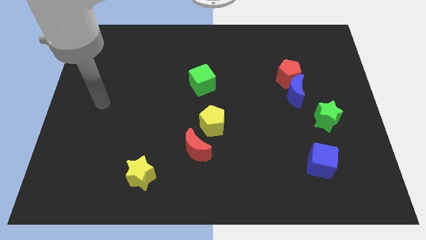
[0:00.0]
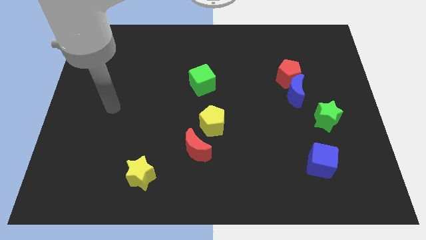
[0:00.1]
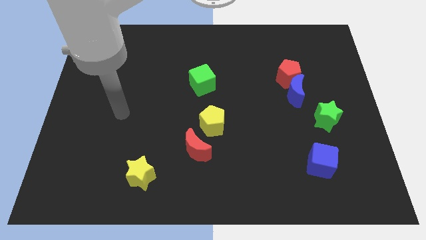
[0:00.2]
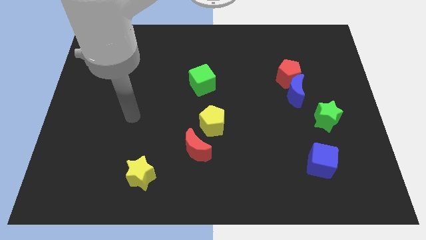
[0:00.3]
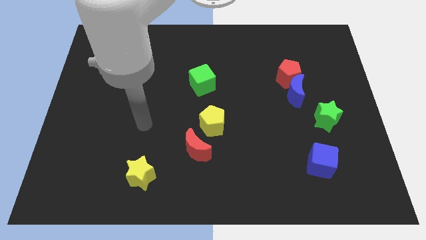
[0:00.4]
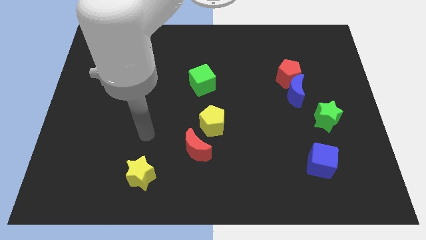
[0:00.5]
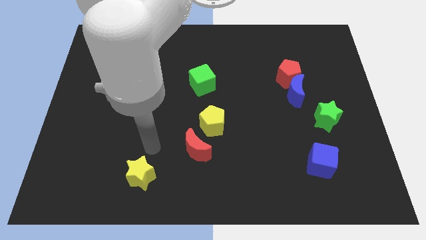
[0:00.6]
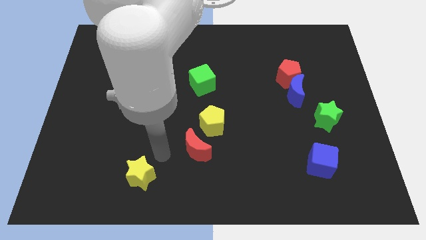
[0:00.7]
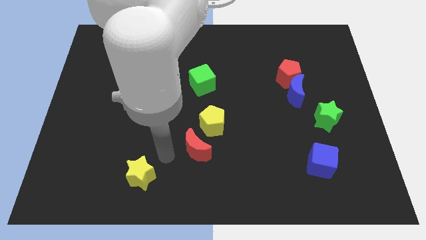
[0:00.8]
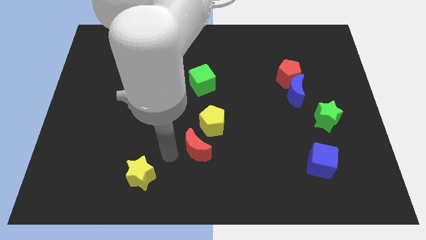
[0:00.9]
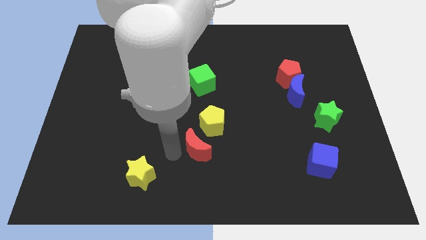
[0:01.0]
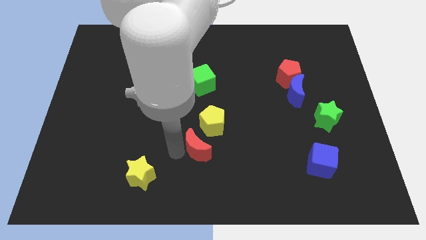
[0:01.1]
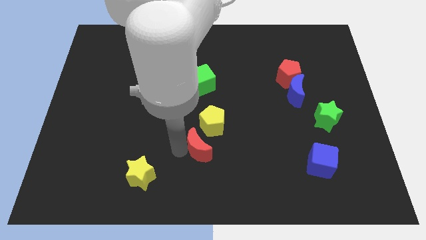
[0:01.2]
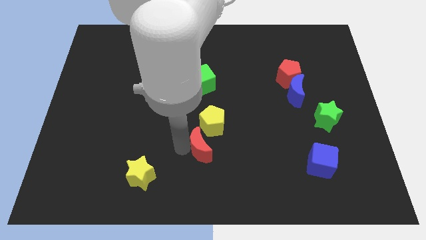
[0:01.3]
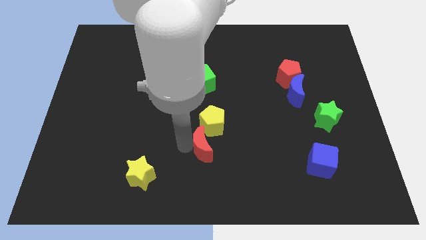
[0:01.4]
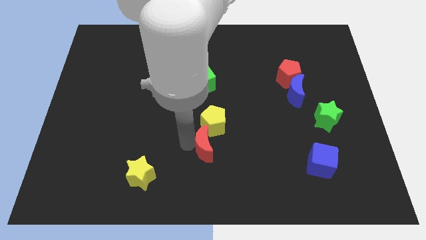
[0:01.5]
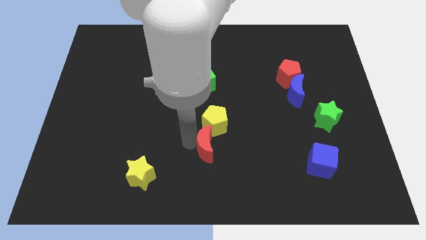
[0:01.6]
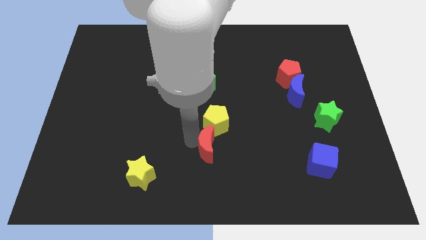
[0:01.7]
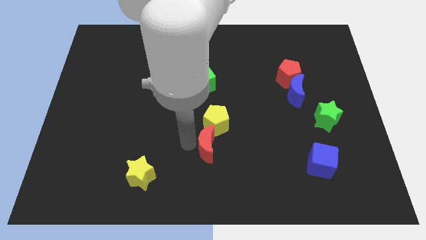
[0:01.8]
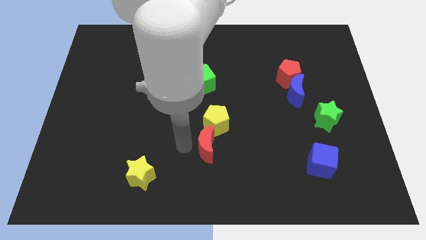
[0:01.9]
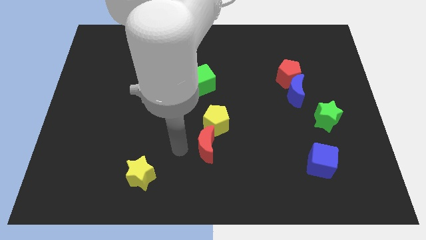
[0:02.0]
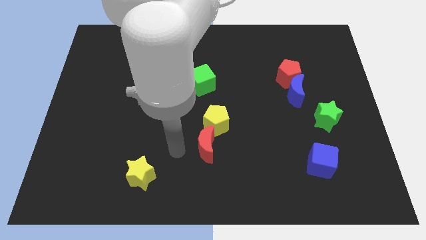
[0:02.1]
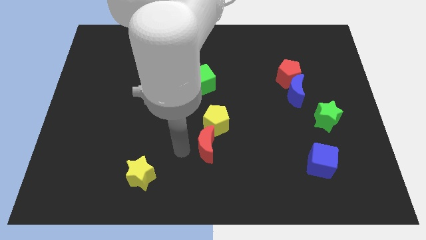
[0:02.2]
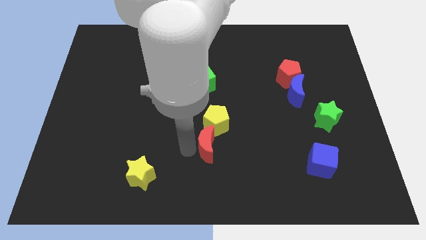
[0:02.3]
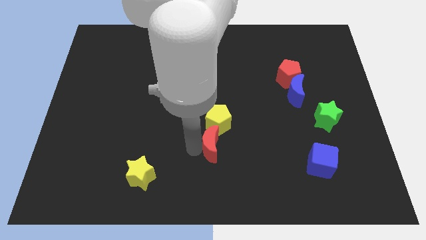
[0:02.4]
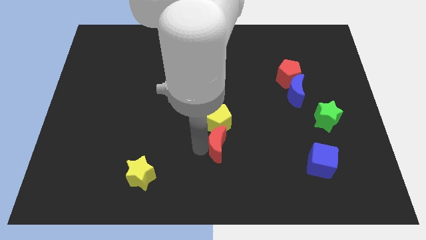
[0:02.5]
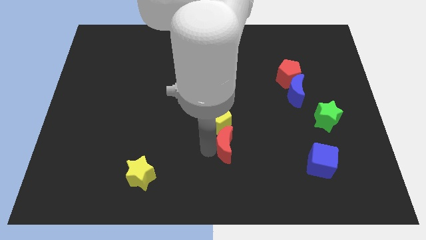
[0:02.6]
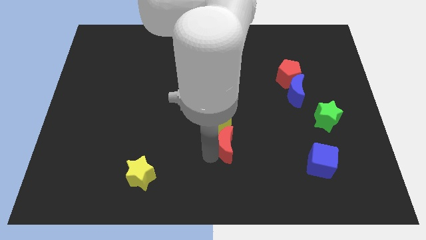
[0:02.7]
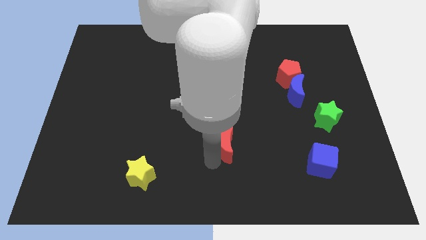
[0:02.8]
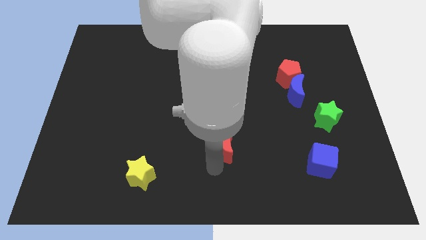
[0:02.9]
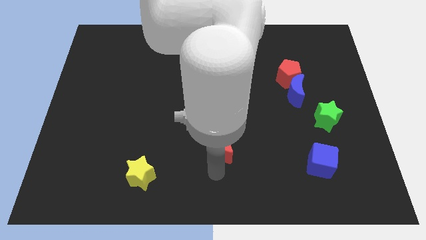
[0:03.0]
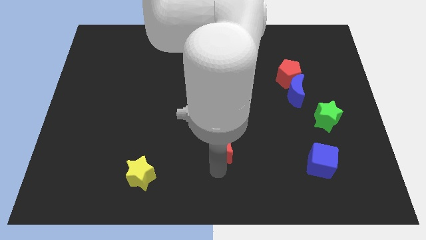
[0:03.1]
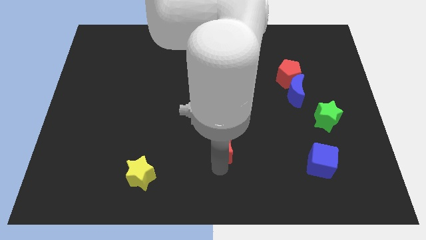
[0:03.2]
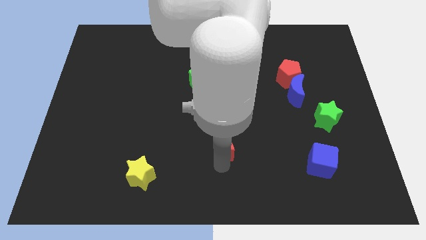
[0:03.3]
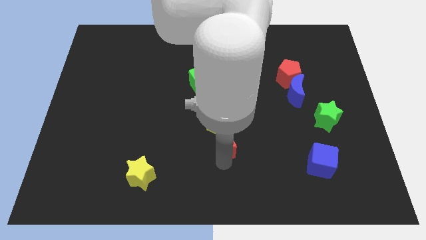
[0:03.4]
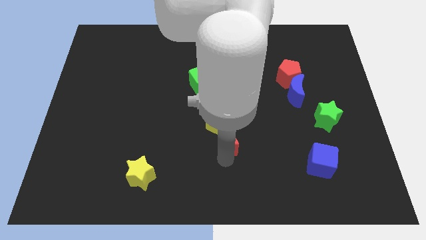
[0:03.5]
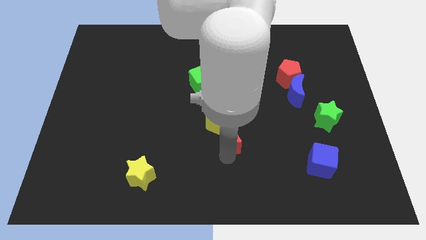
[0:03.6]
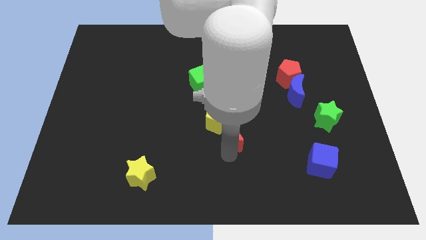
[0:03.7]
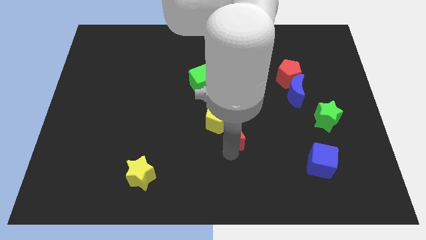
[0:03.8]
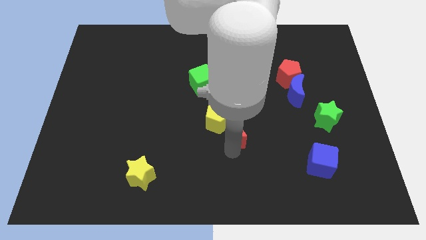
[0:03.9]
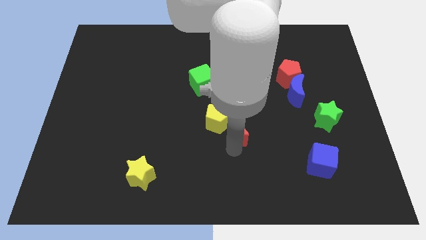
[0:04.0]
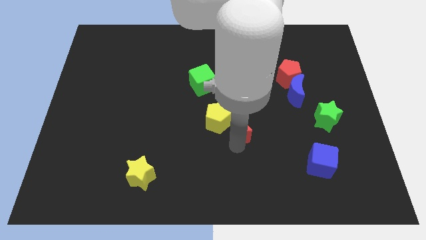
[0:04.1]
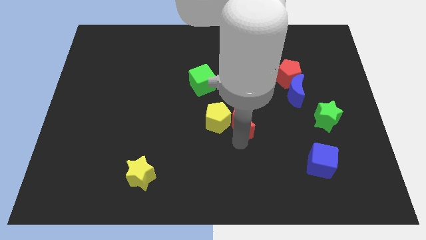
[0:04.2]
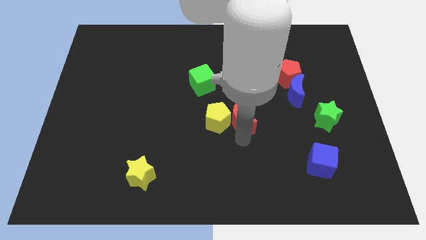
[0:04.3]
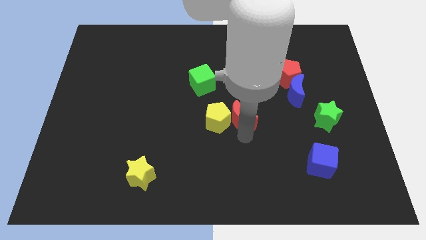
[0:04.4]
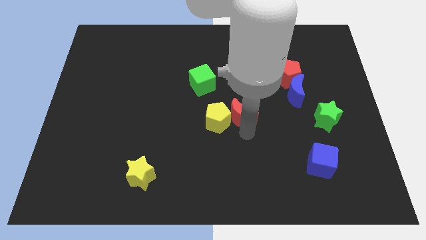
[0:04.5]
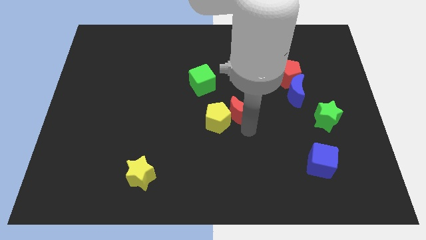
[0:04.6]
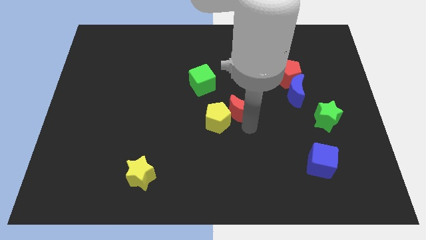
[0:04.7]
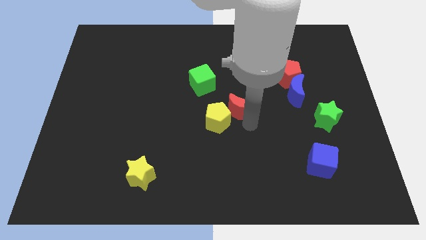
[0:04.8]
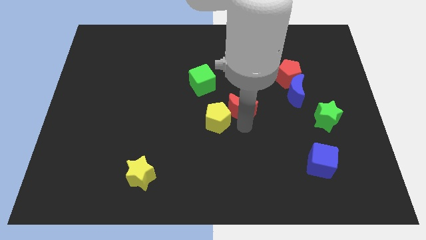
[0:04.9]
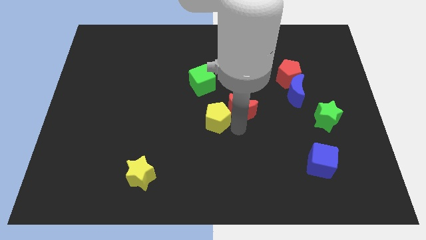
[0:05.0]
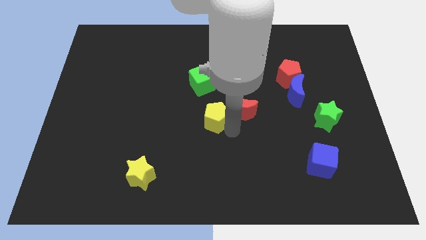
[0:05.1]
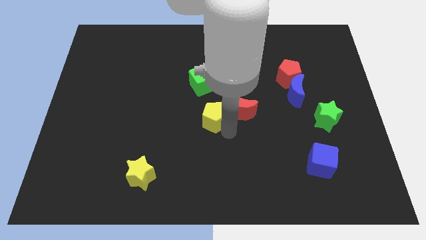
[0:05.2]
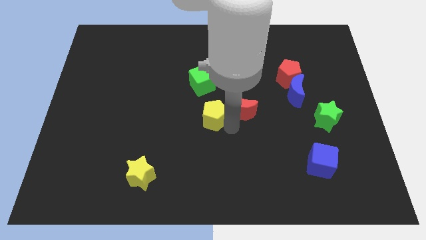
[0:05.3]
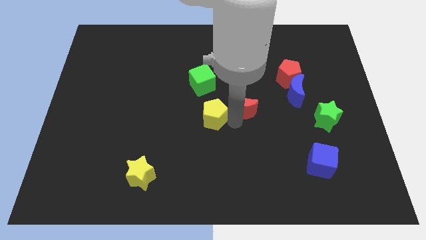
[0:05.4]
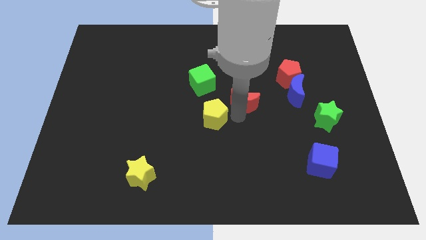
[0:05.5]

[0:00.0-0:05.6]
put the red moon to the left side of the blue moon
